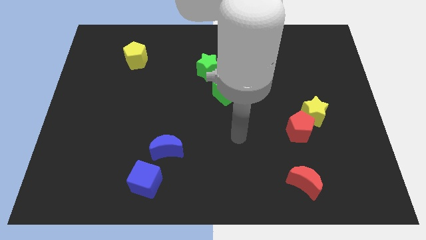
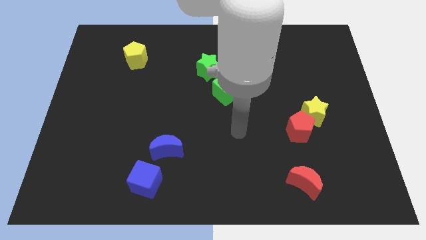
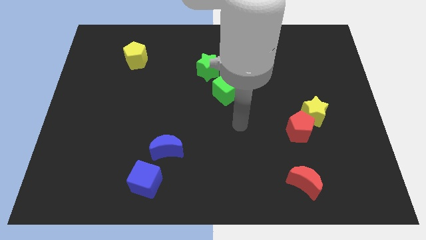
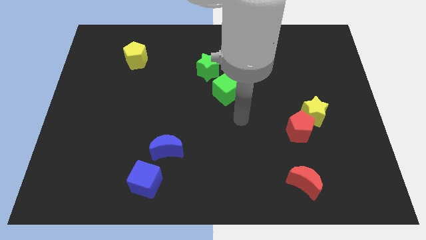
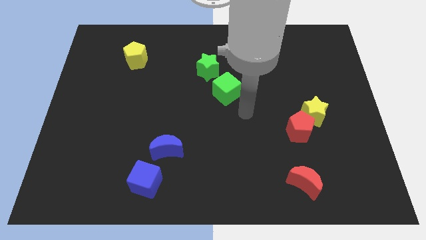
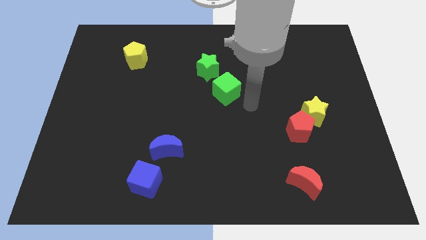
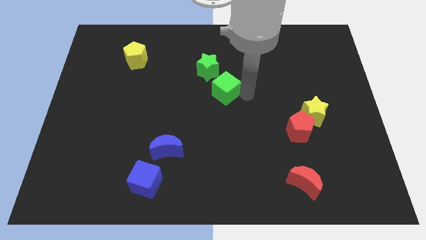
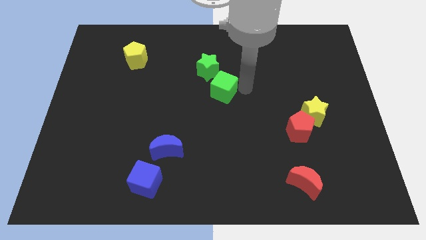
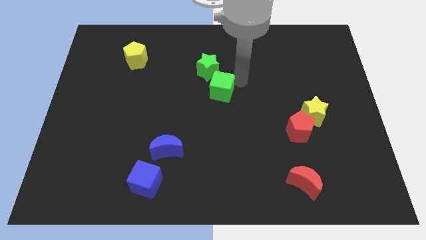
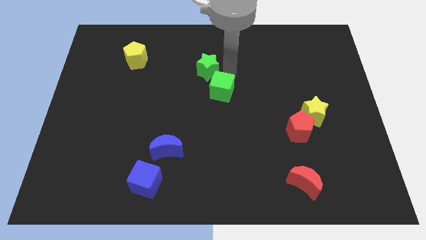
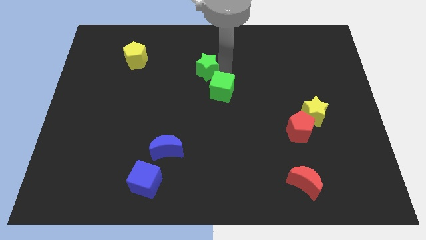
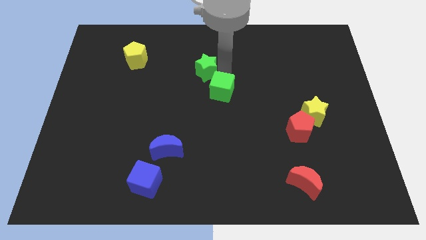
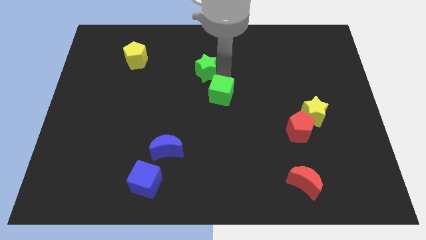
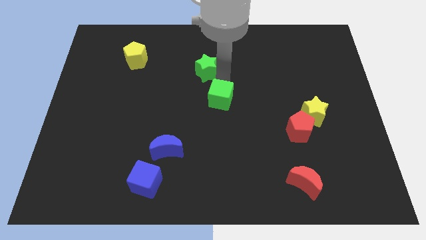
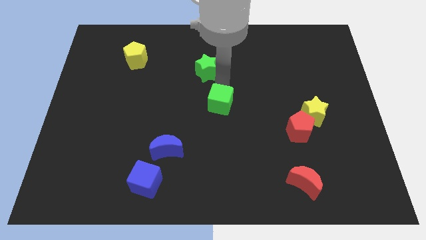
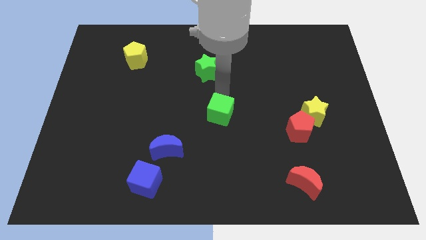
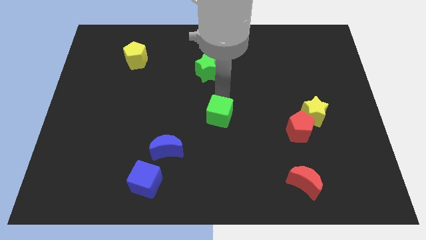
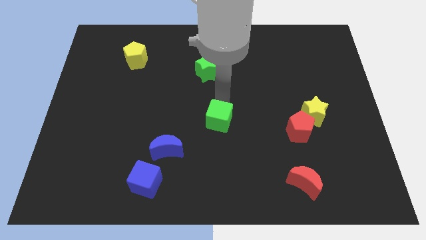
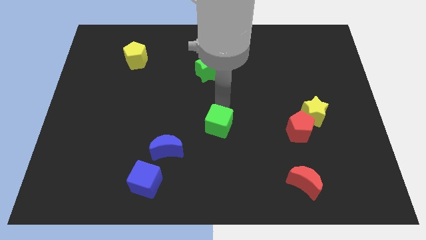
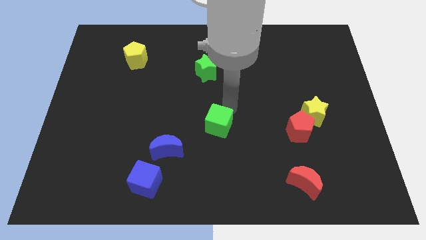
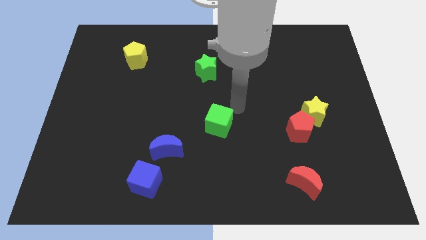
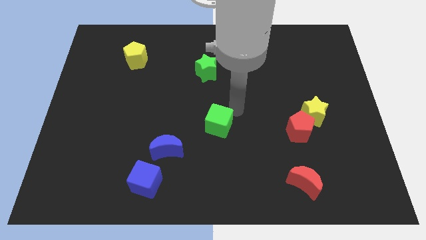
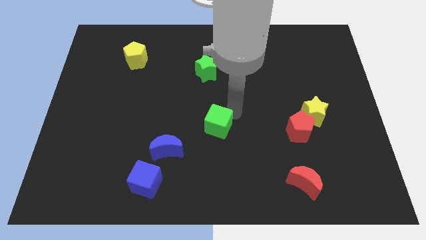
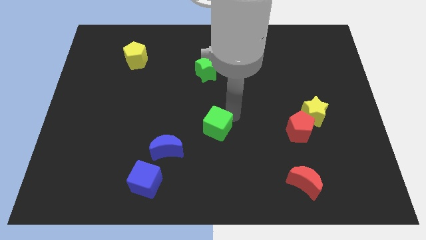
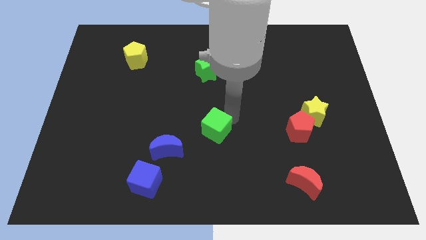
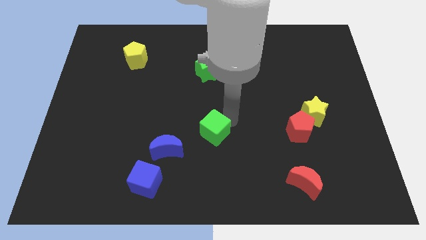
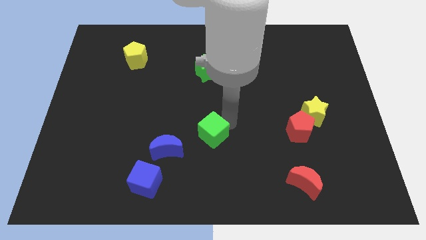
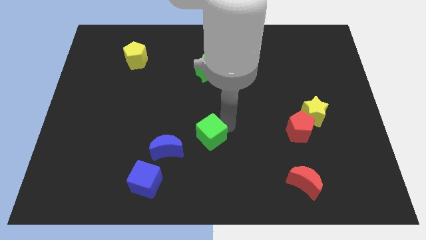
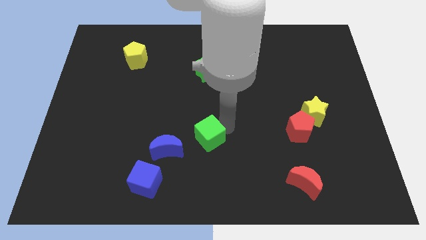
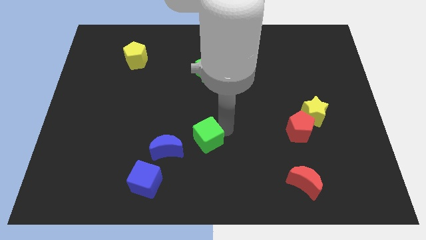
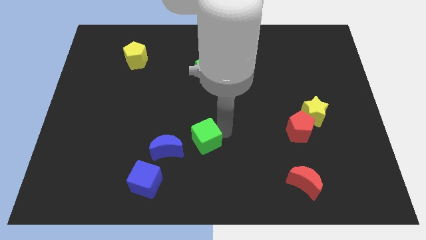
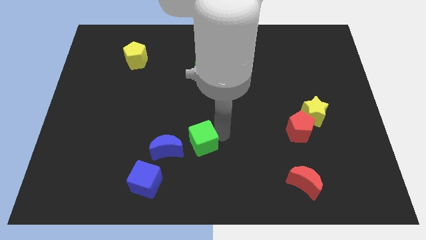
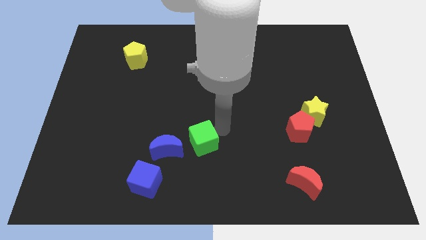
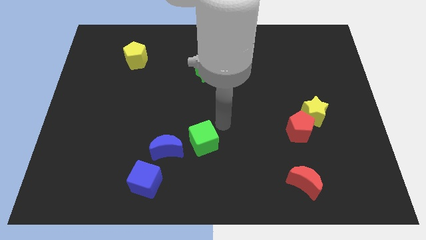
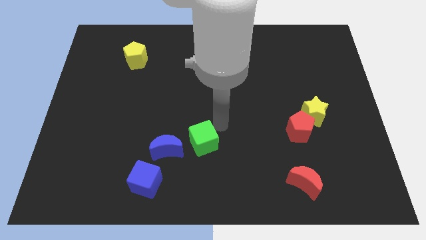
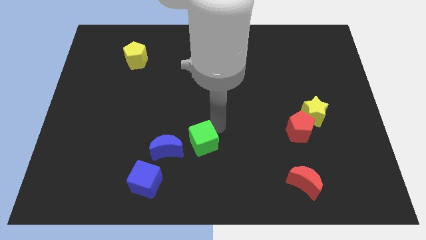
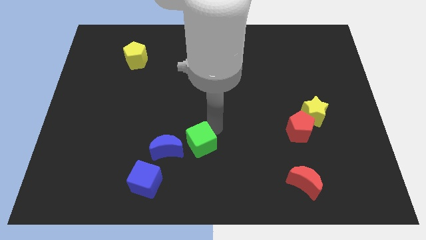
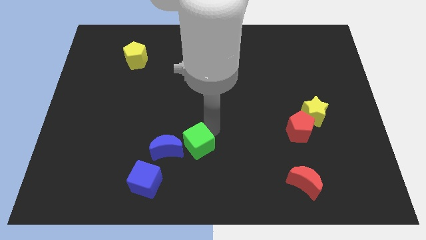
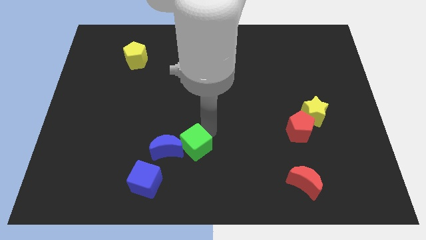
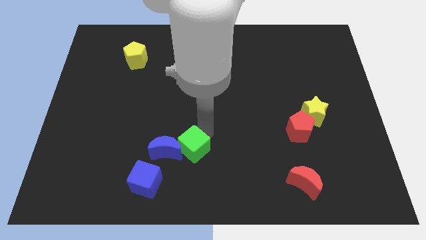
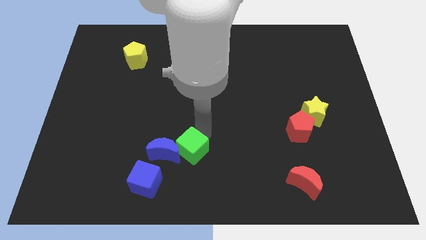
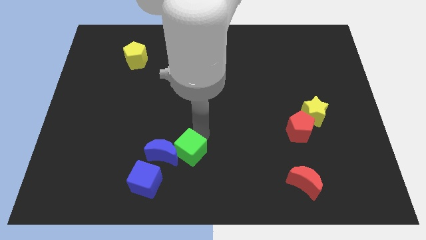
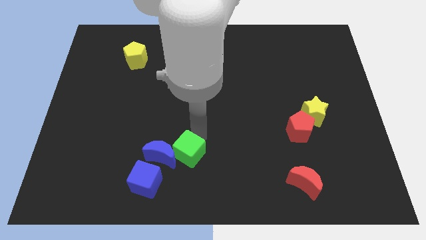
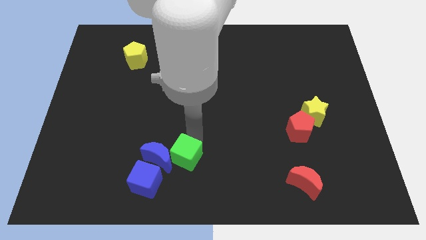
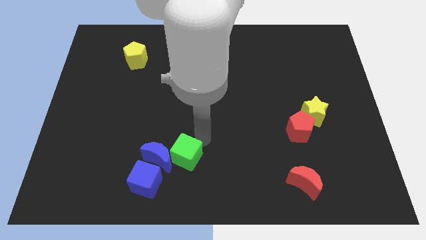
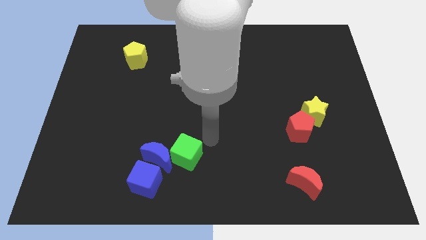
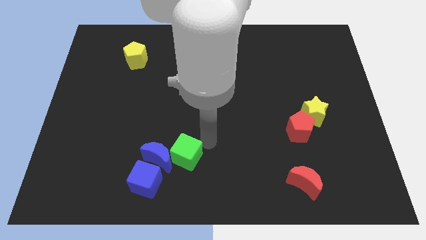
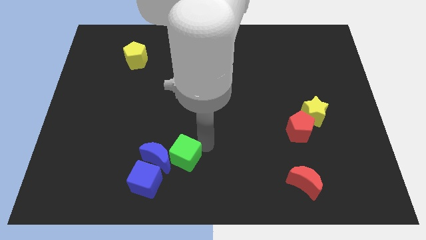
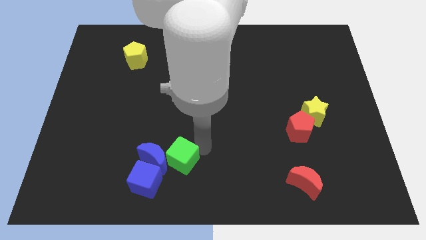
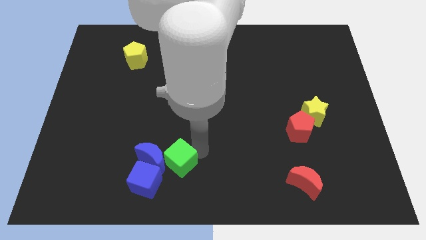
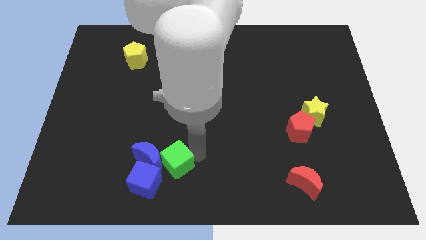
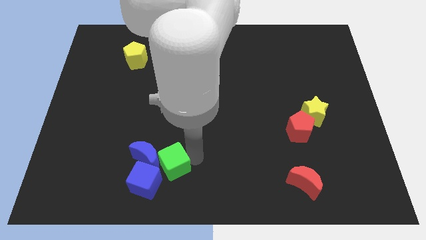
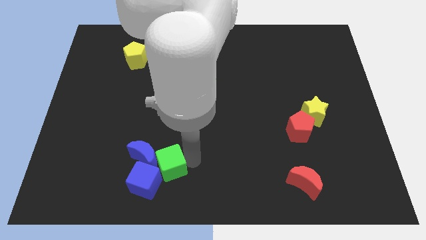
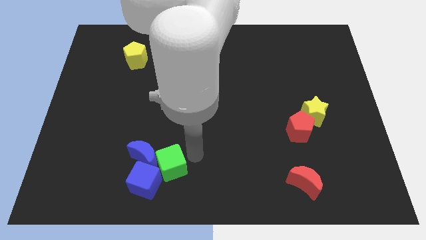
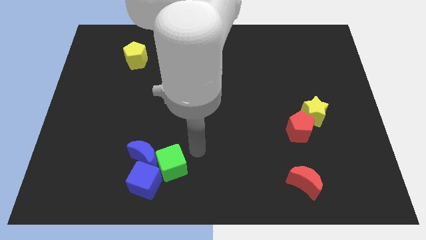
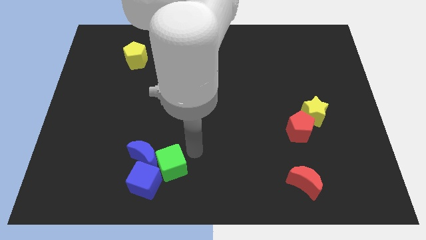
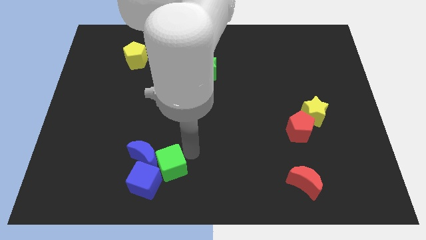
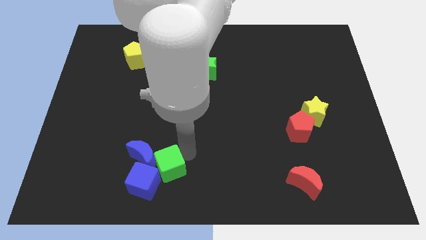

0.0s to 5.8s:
push the green cube next to the blue cube

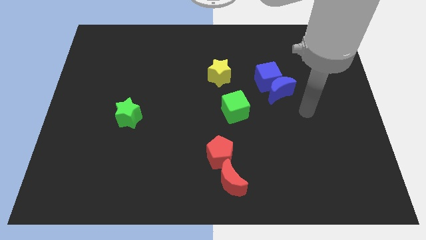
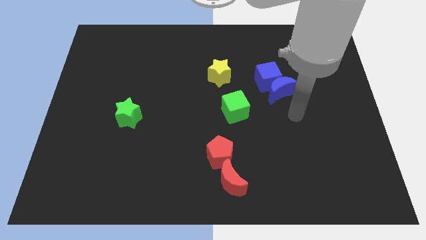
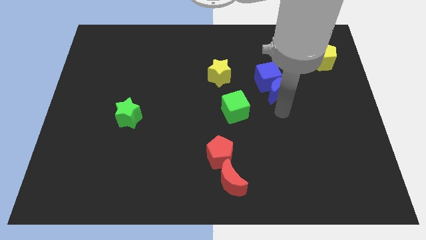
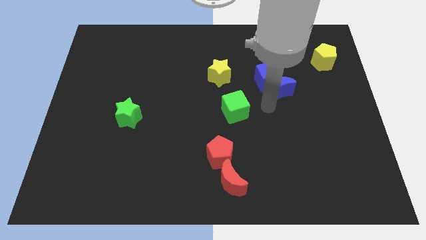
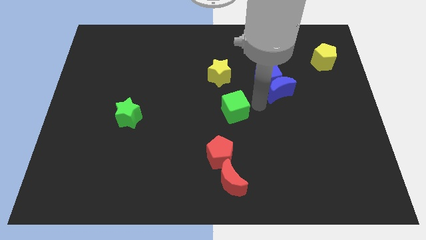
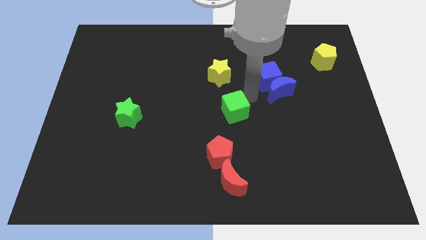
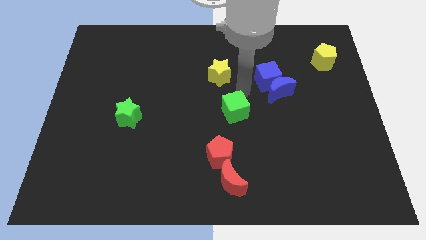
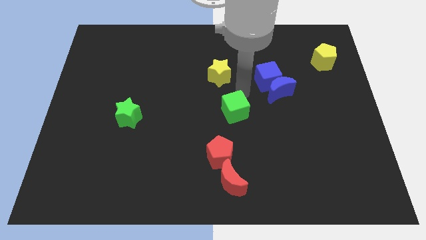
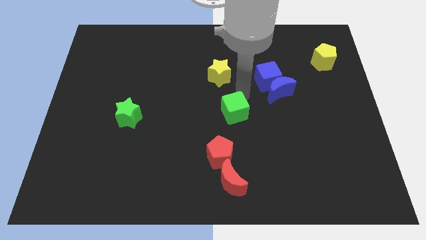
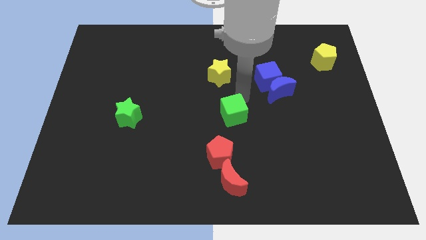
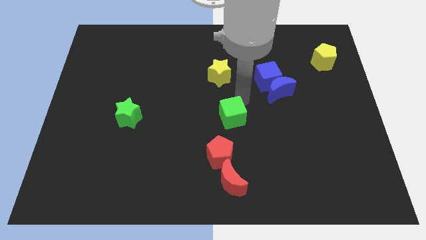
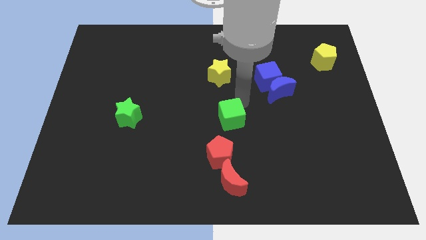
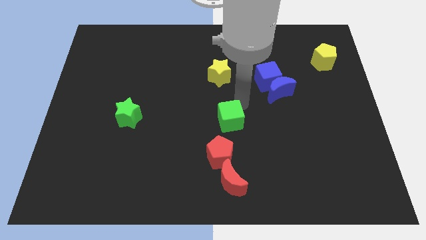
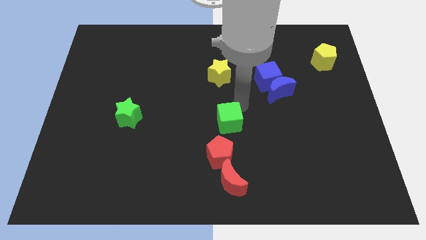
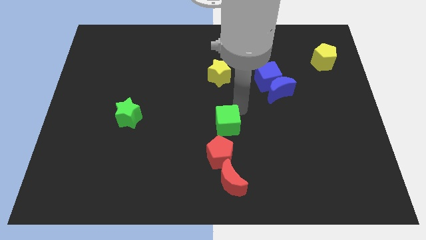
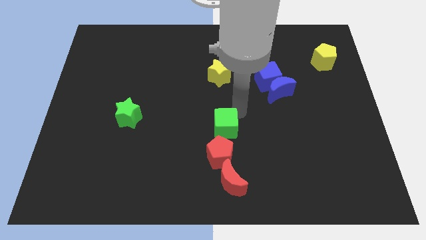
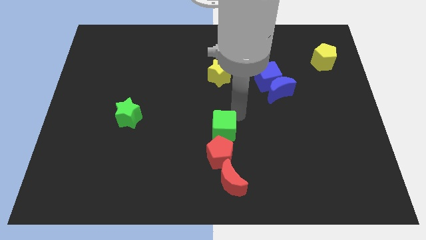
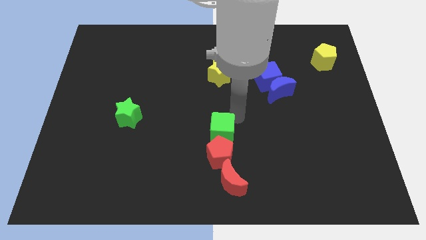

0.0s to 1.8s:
put the green cube next to the red pentagon

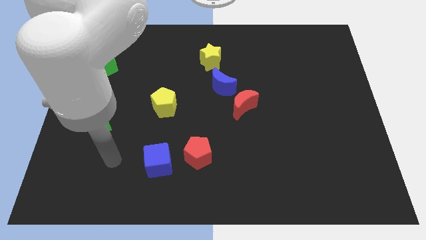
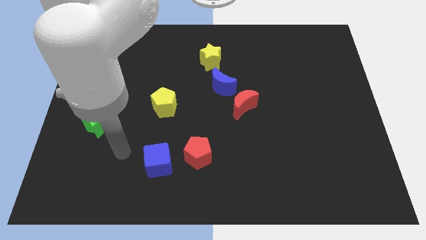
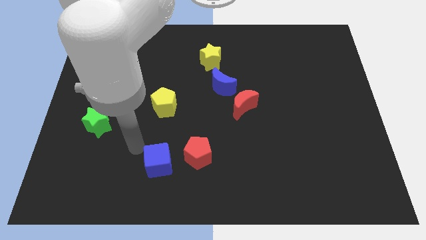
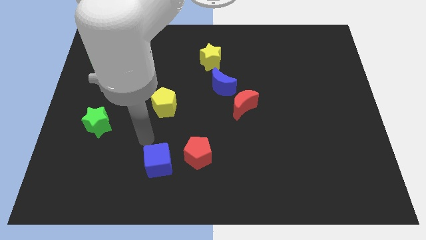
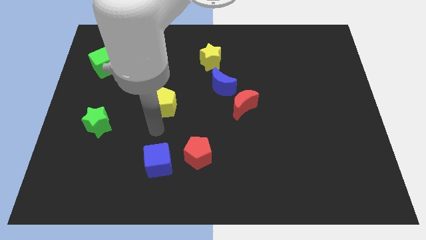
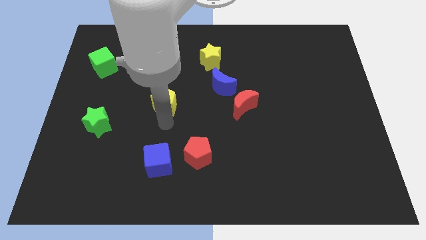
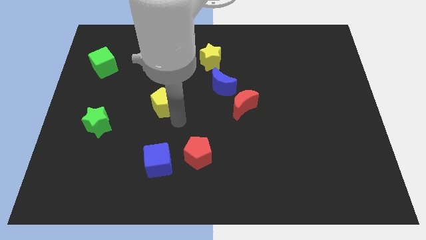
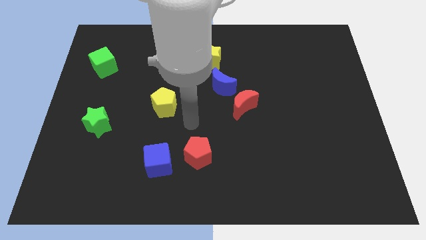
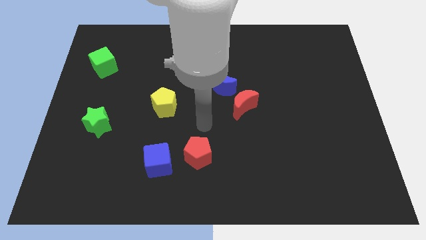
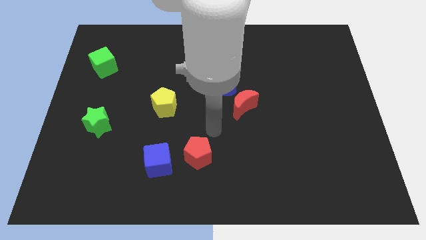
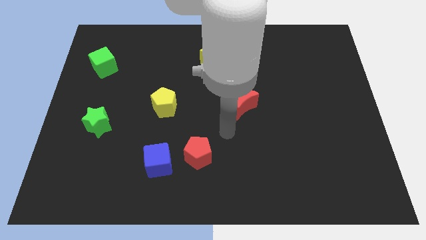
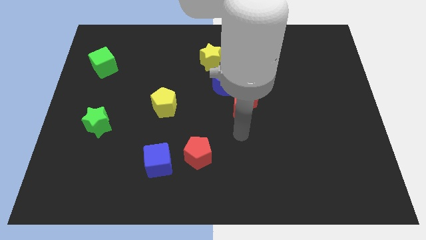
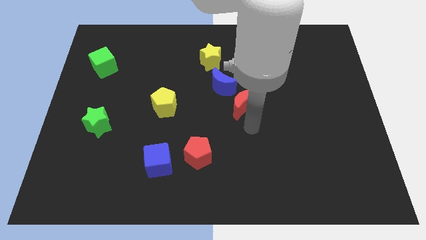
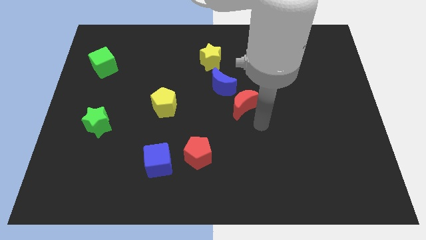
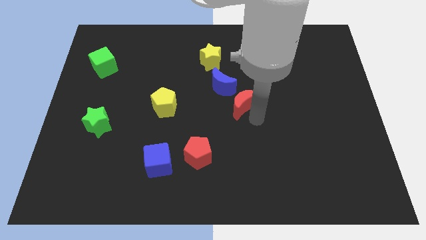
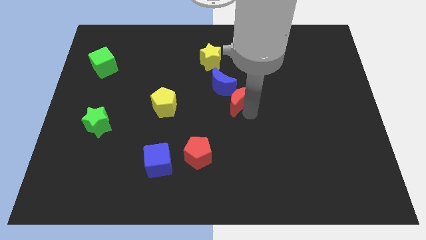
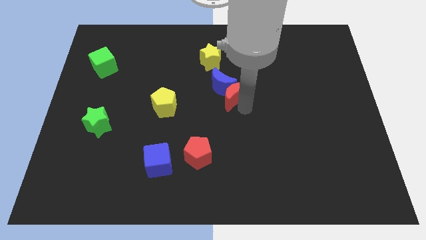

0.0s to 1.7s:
slide the red moon next to the blue moon
